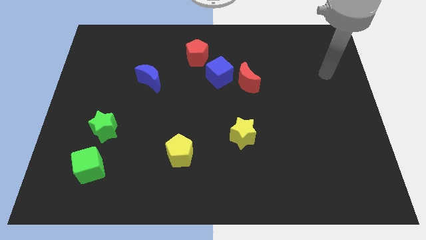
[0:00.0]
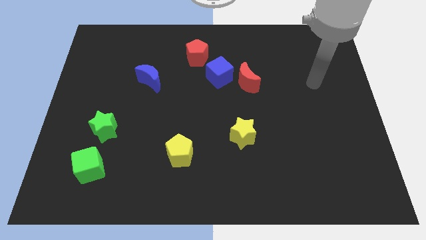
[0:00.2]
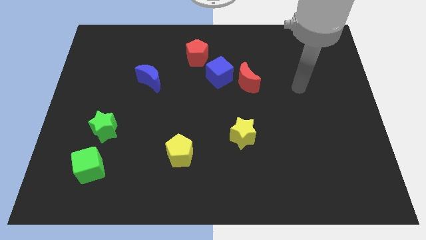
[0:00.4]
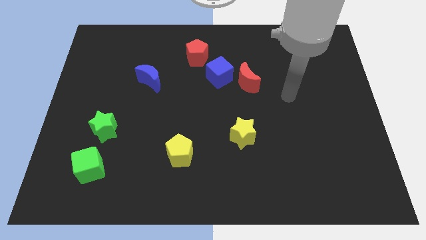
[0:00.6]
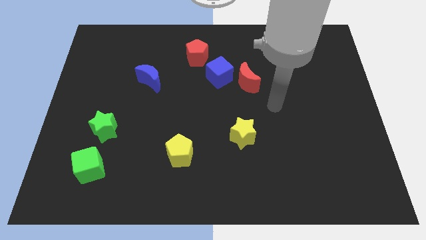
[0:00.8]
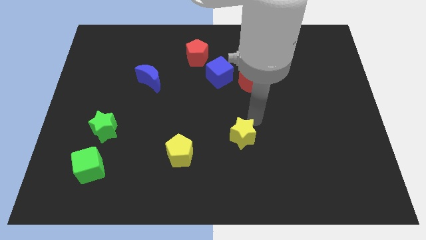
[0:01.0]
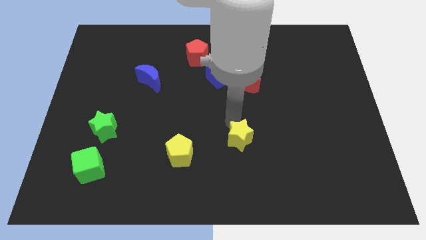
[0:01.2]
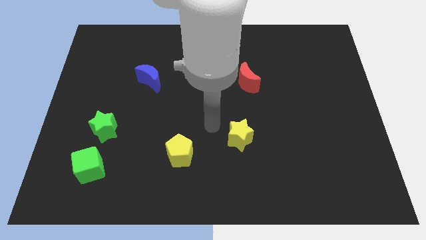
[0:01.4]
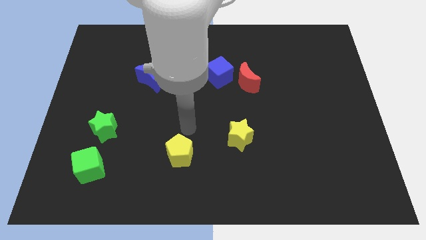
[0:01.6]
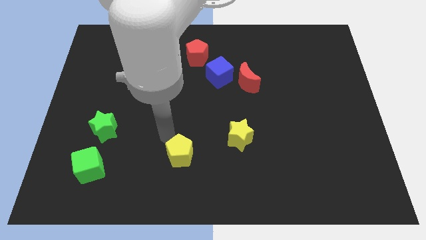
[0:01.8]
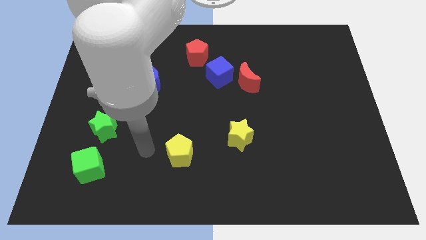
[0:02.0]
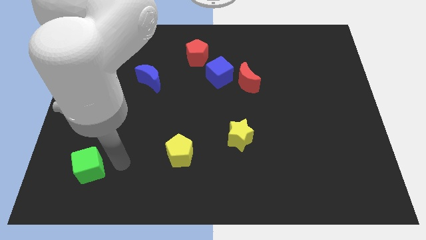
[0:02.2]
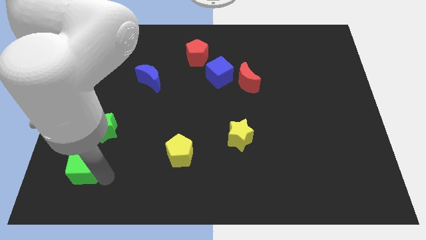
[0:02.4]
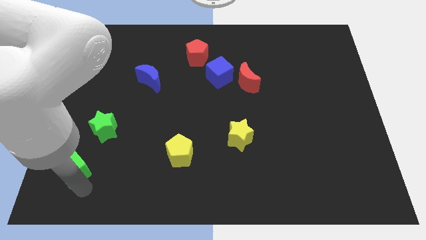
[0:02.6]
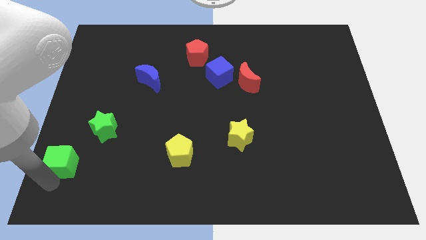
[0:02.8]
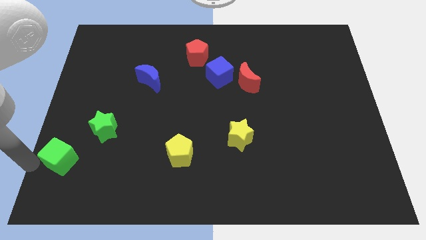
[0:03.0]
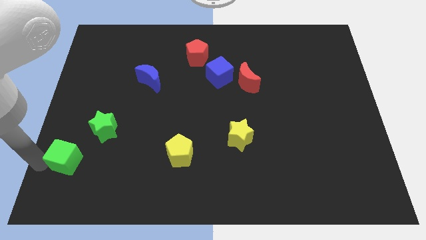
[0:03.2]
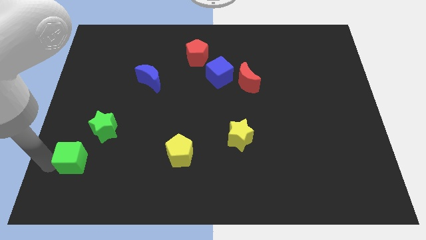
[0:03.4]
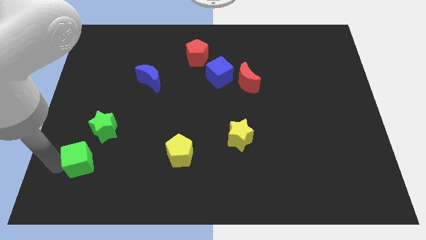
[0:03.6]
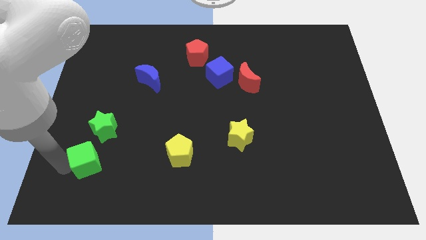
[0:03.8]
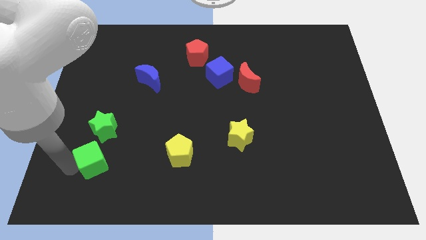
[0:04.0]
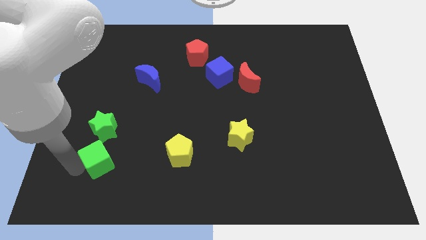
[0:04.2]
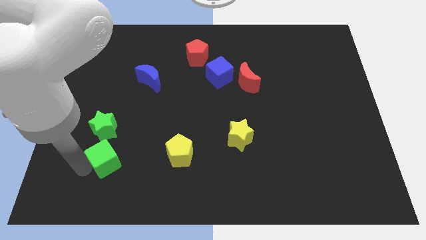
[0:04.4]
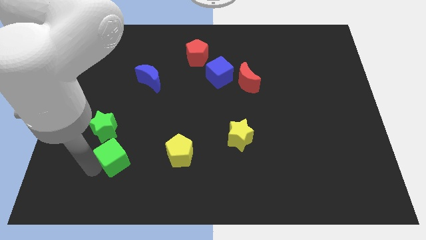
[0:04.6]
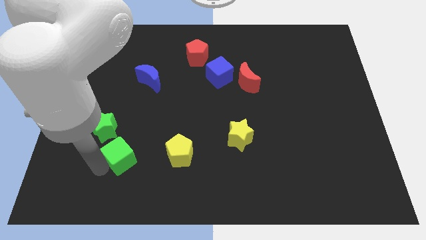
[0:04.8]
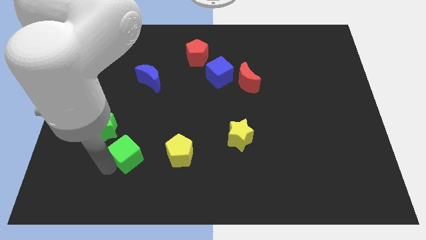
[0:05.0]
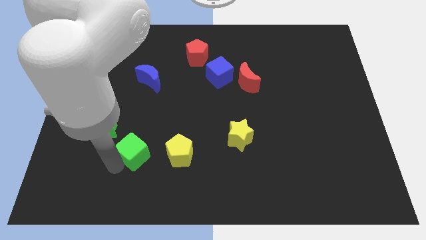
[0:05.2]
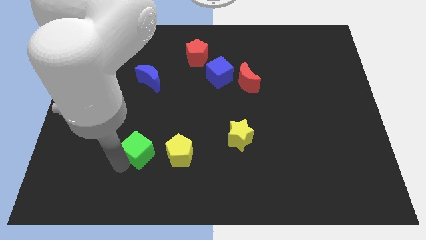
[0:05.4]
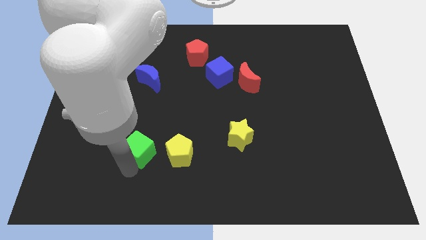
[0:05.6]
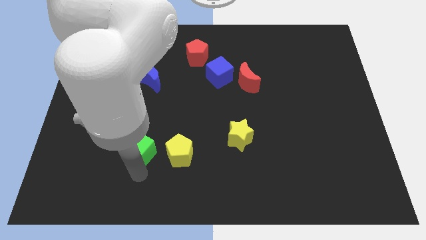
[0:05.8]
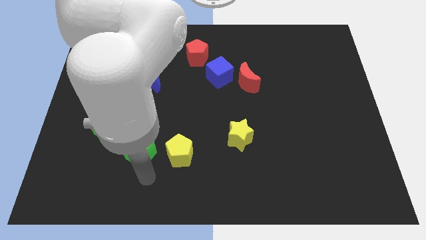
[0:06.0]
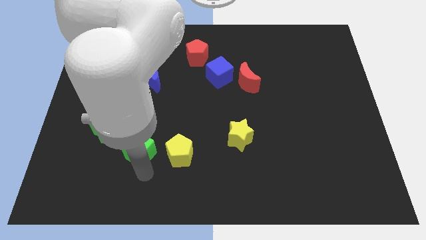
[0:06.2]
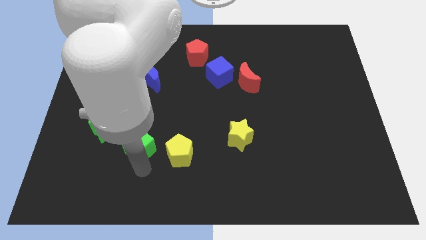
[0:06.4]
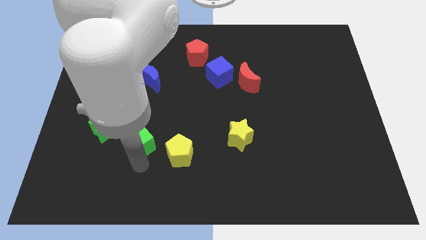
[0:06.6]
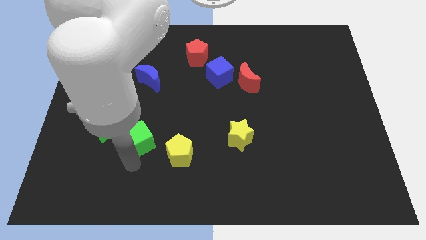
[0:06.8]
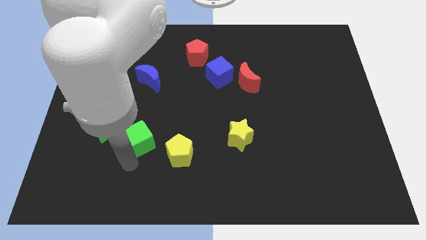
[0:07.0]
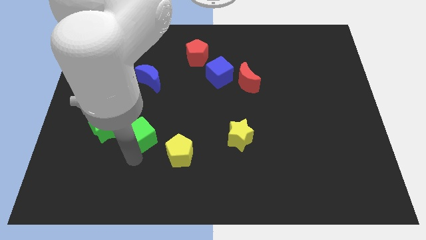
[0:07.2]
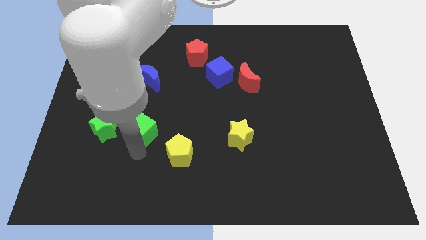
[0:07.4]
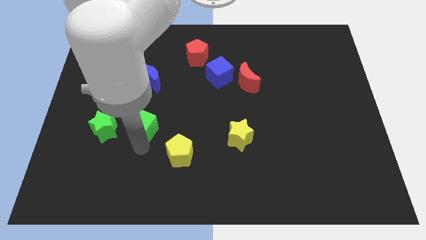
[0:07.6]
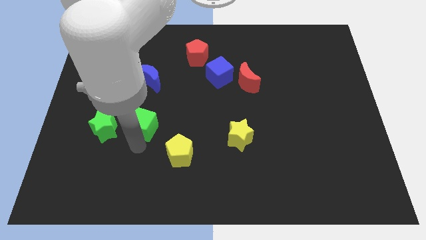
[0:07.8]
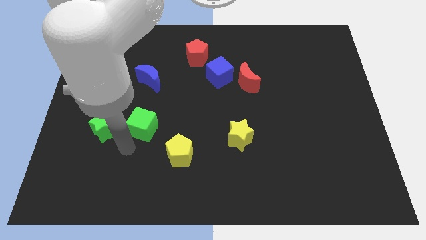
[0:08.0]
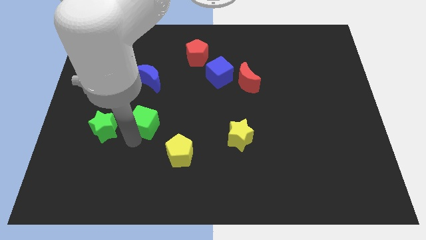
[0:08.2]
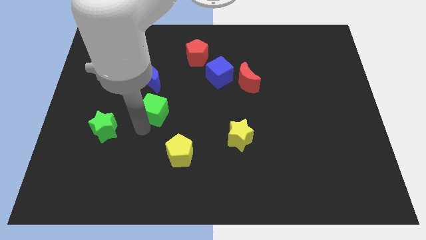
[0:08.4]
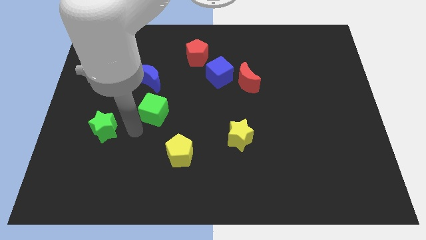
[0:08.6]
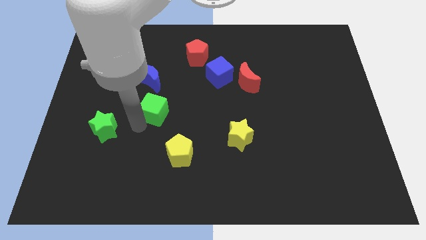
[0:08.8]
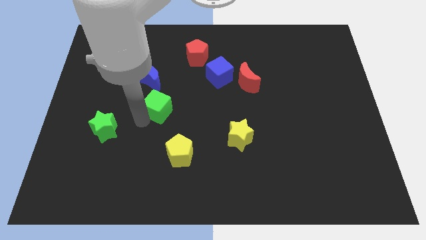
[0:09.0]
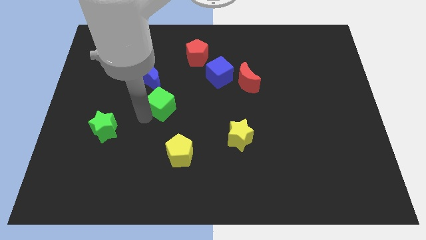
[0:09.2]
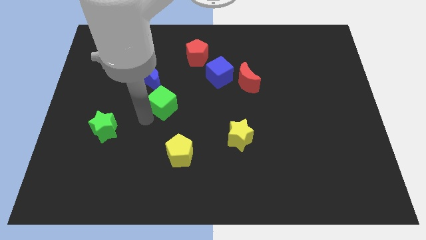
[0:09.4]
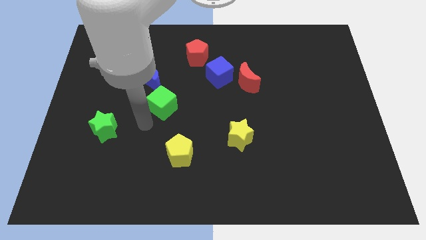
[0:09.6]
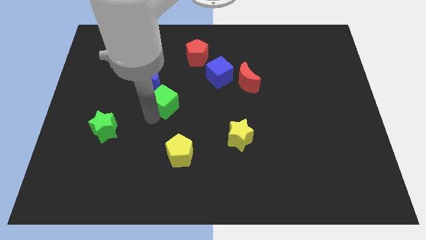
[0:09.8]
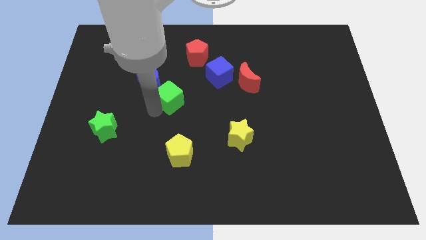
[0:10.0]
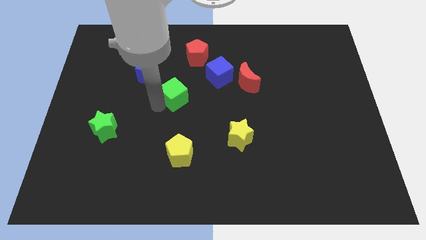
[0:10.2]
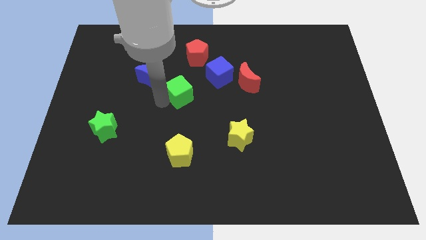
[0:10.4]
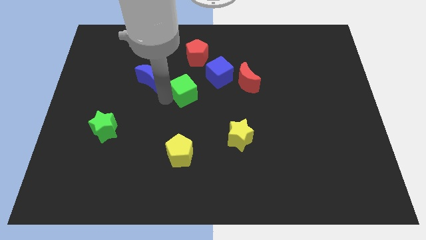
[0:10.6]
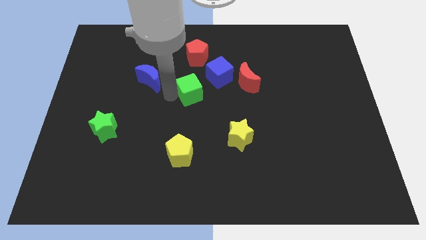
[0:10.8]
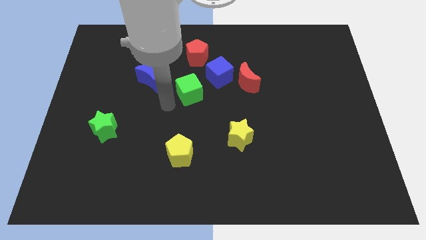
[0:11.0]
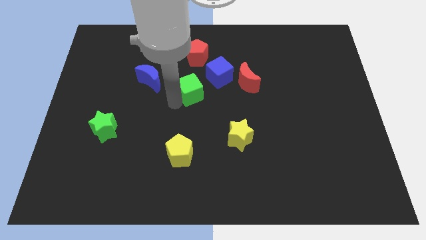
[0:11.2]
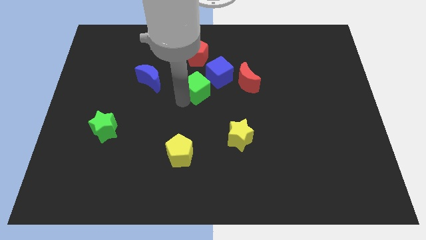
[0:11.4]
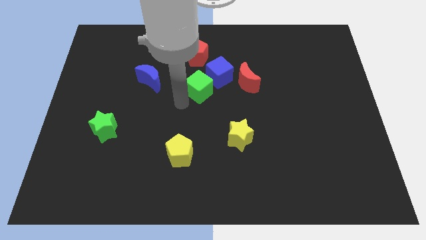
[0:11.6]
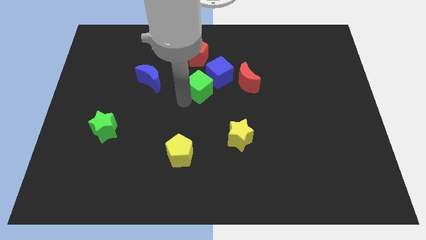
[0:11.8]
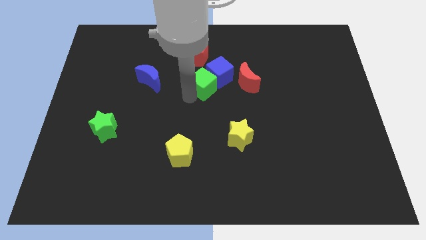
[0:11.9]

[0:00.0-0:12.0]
push the green cube to the blue cube
